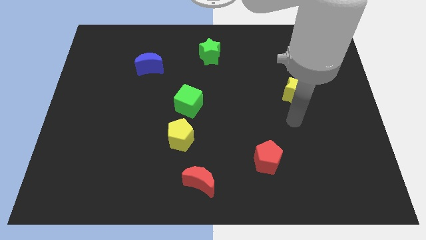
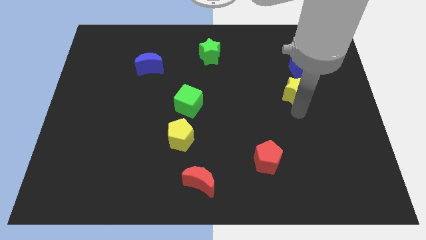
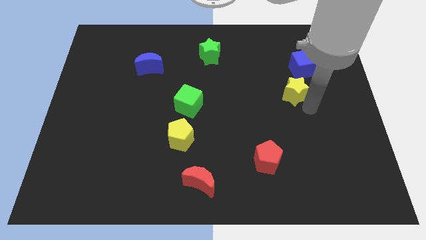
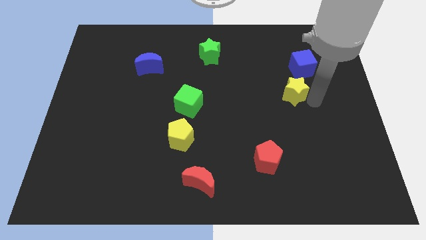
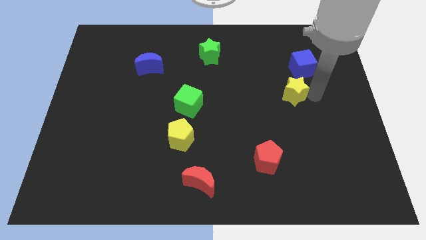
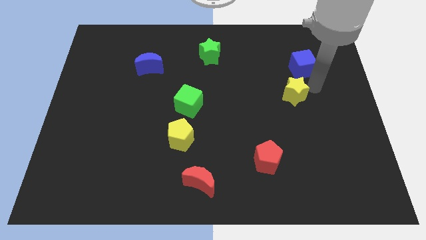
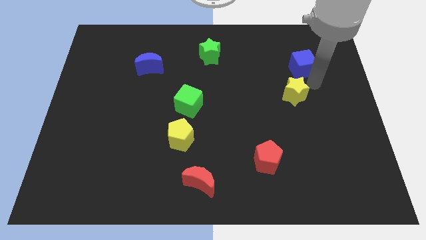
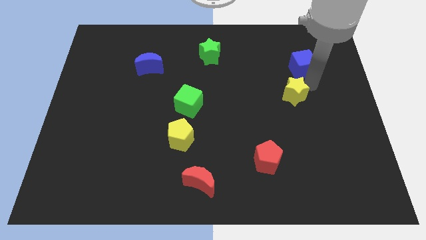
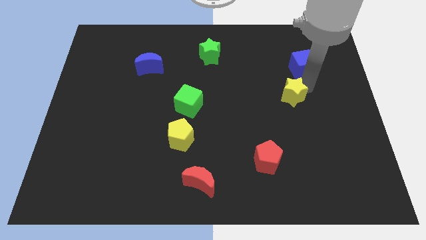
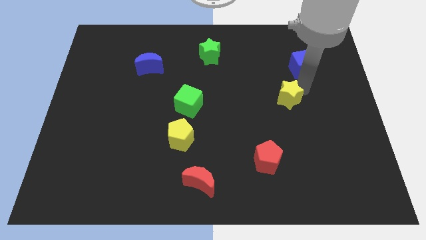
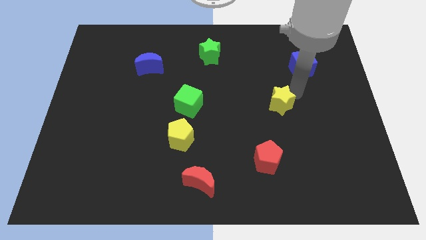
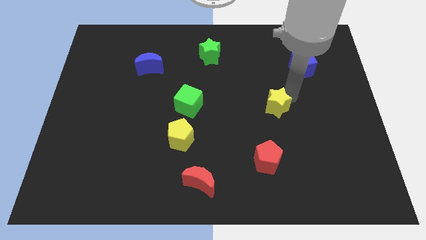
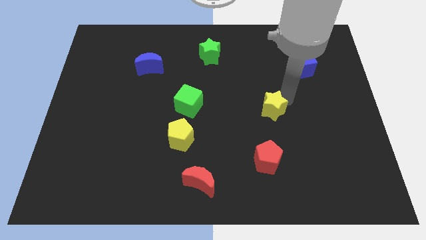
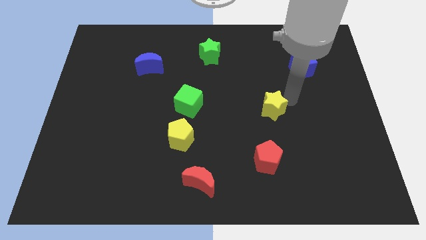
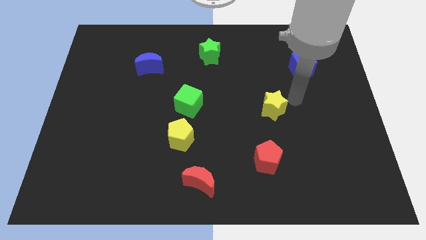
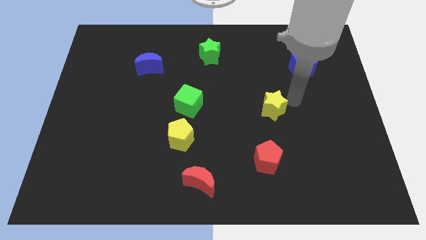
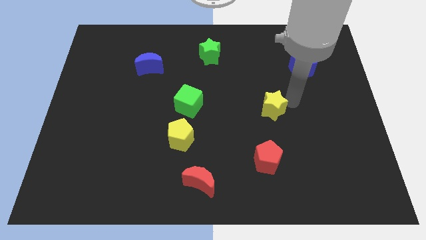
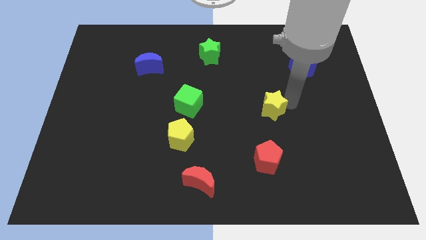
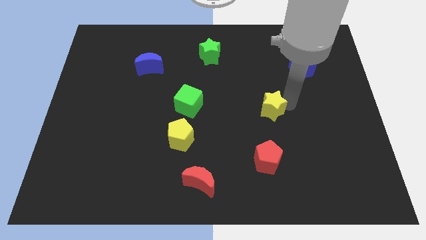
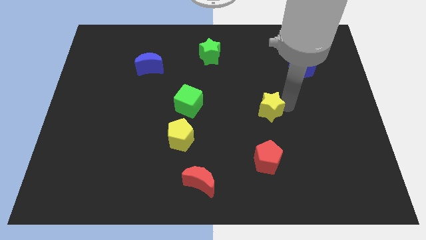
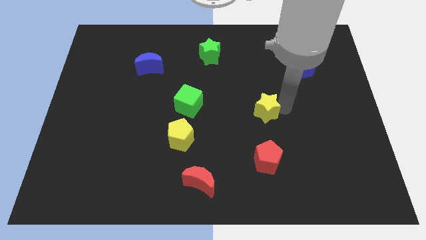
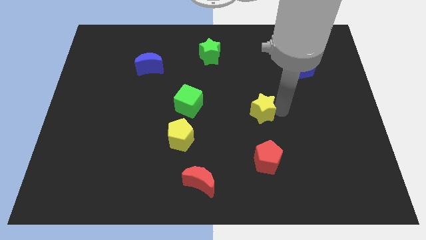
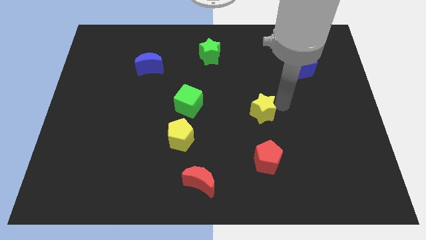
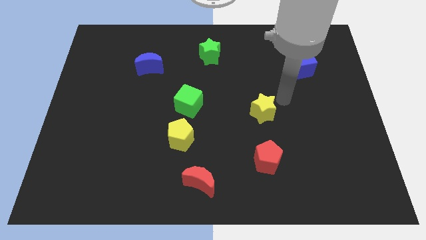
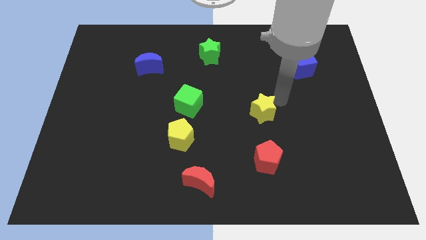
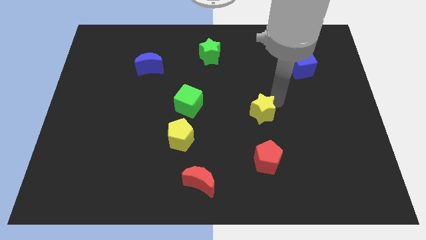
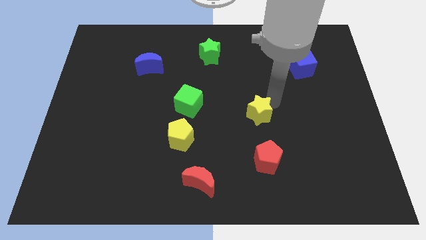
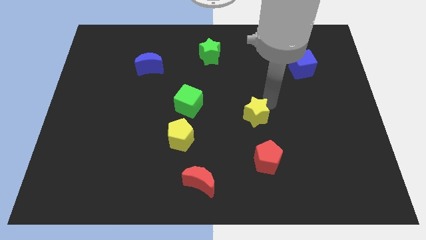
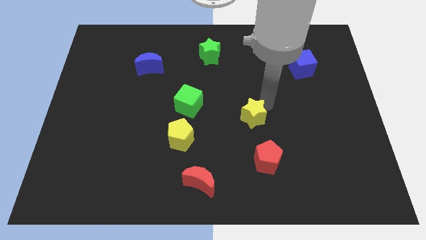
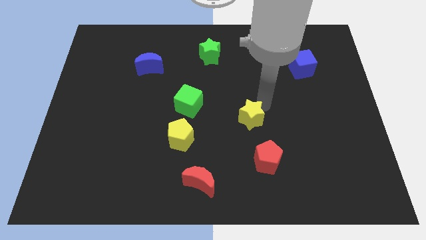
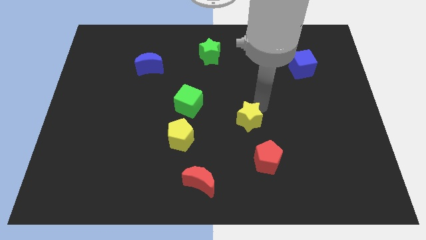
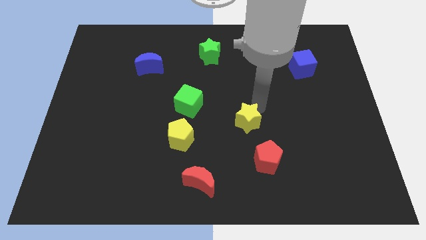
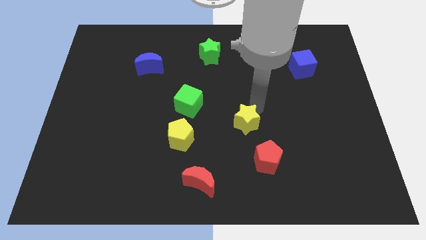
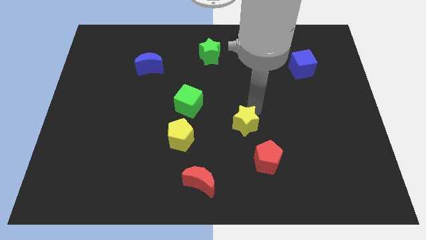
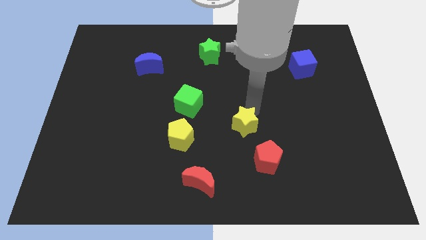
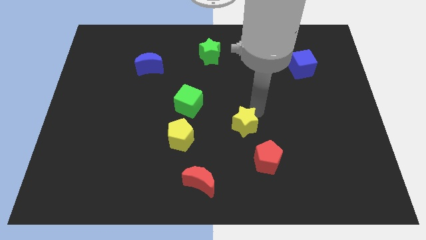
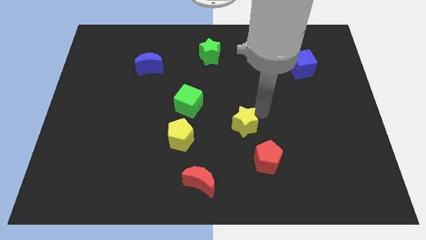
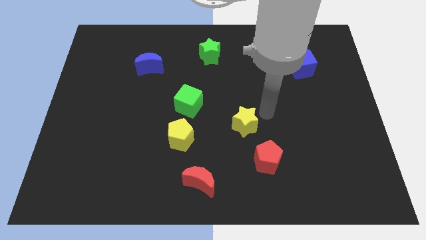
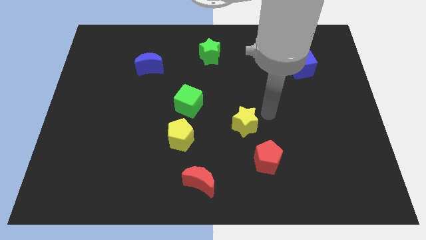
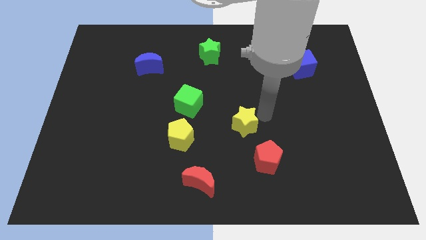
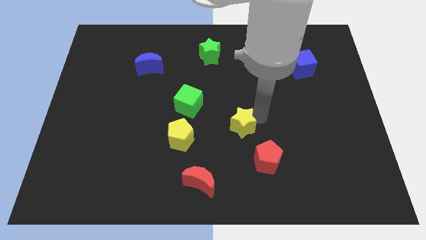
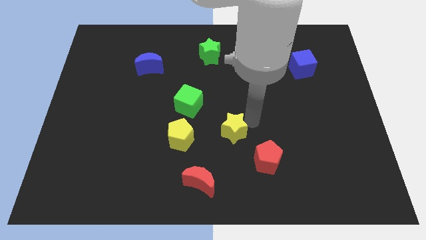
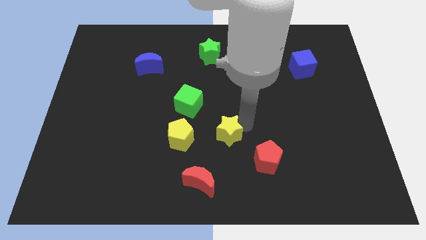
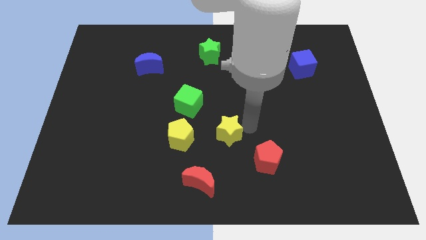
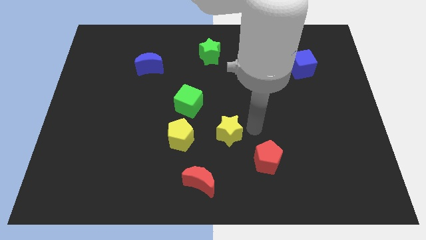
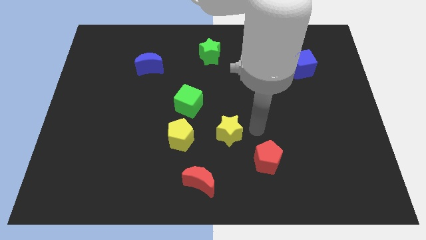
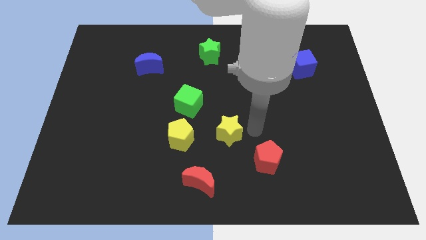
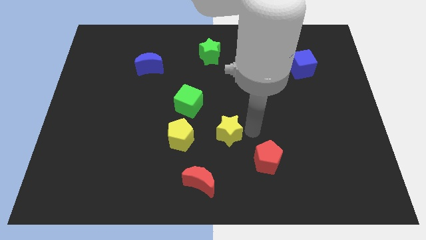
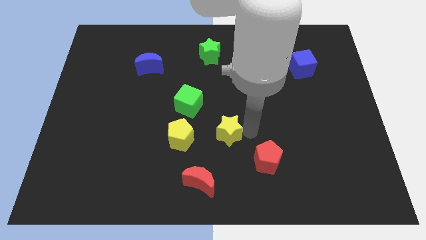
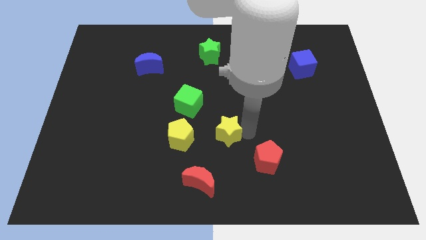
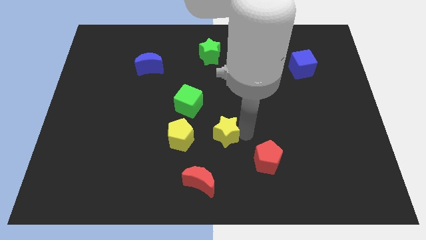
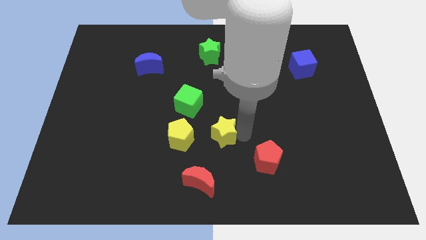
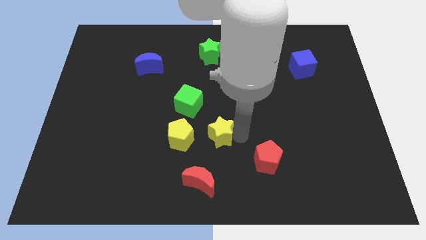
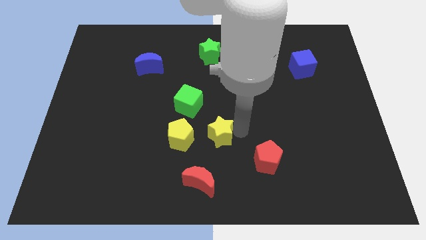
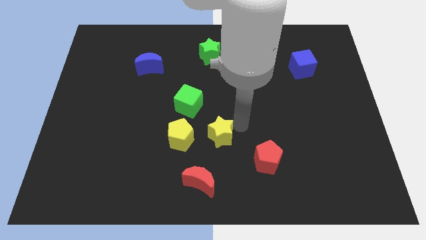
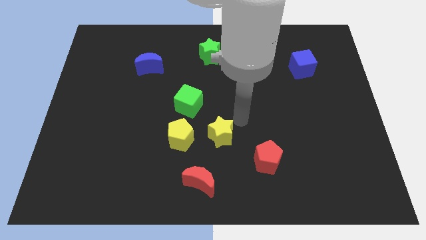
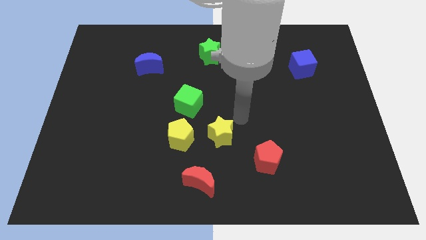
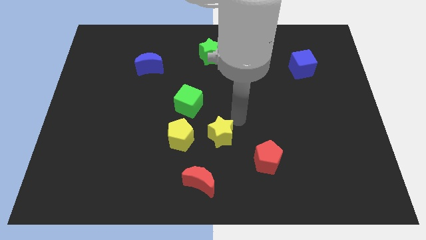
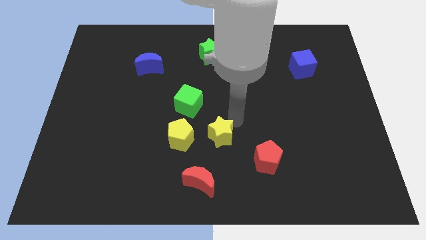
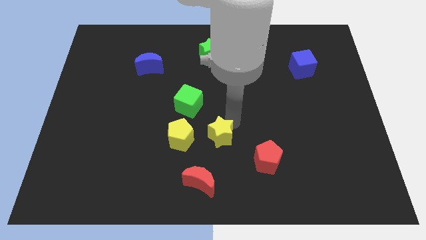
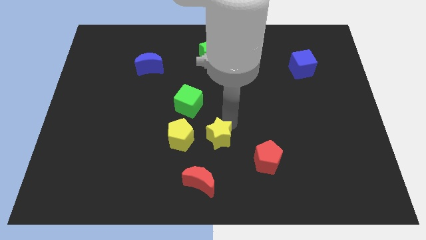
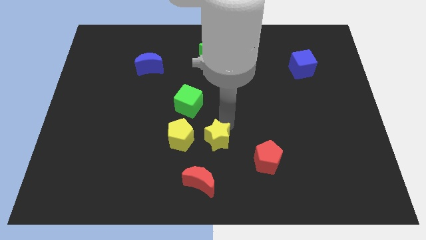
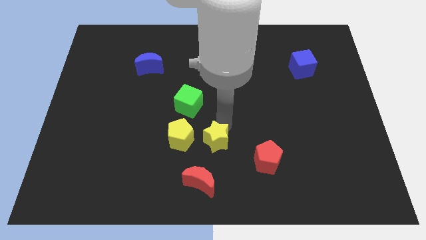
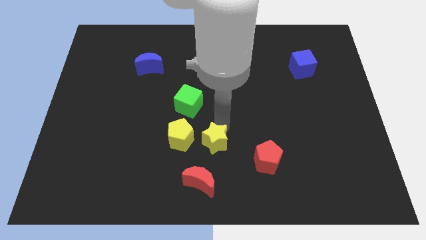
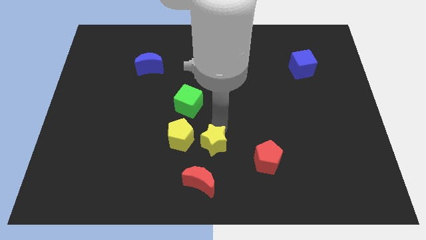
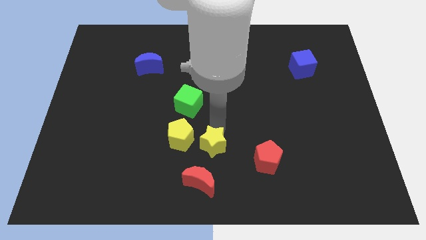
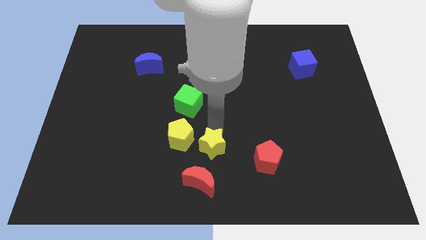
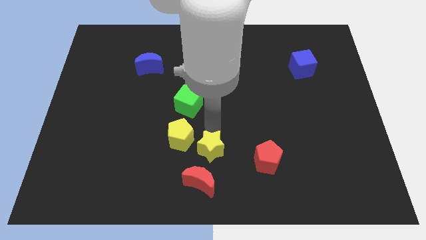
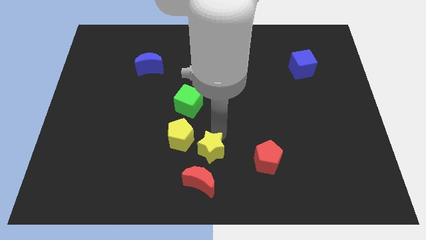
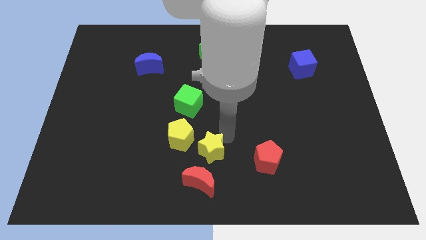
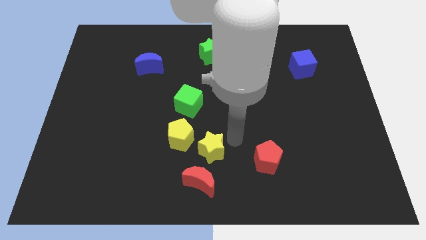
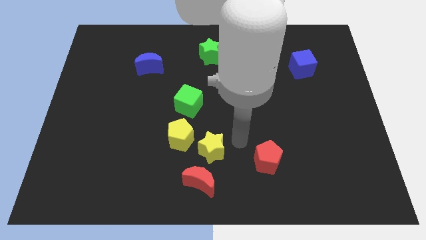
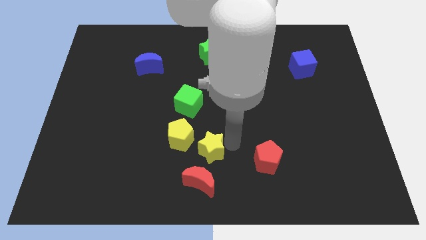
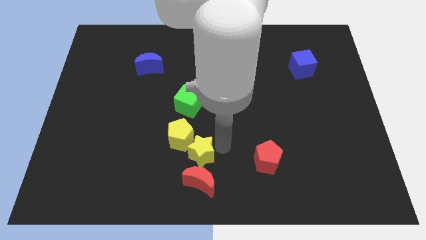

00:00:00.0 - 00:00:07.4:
slide the yellow star to the top left of the red moon
